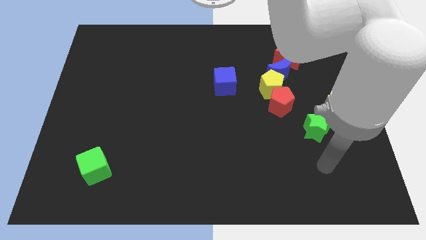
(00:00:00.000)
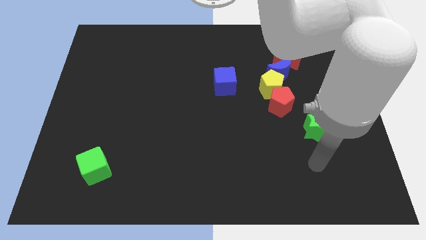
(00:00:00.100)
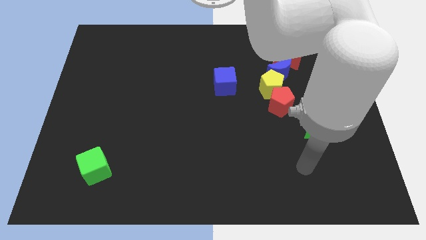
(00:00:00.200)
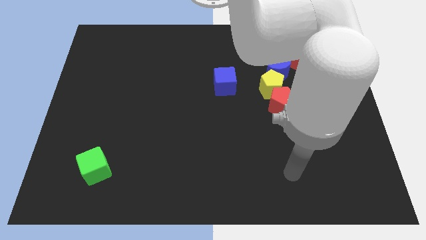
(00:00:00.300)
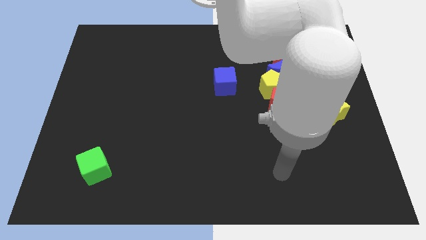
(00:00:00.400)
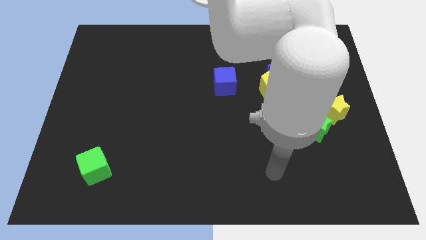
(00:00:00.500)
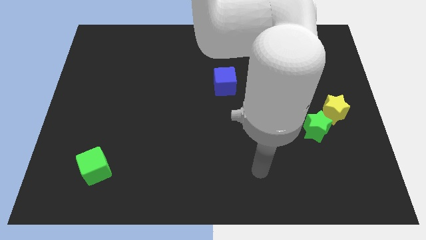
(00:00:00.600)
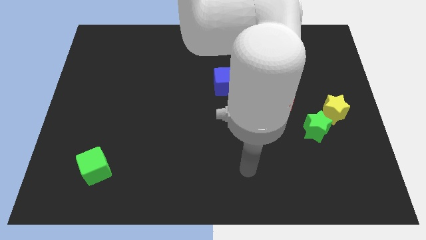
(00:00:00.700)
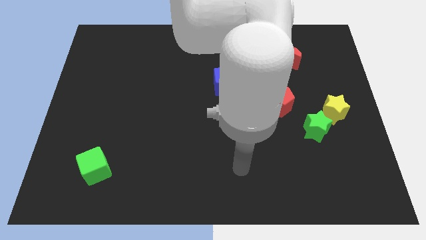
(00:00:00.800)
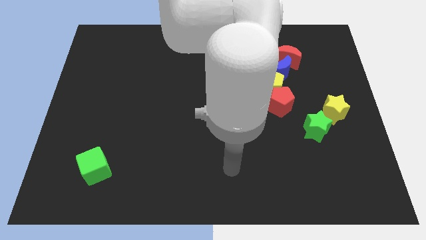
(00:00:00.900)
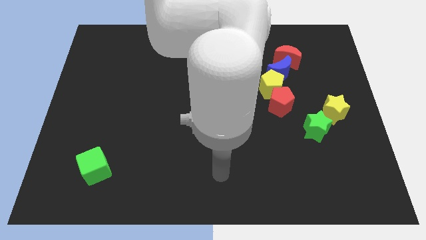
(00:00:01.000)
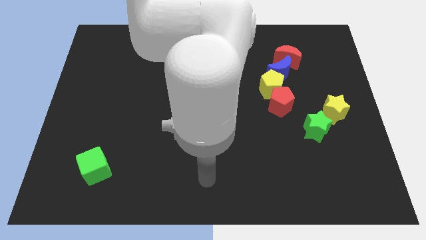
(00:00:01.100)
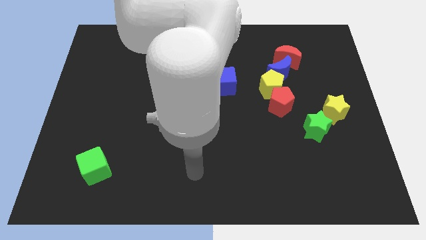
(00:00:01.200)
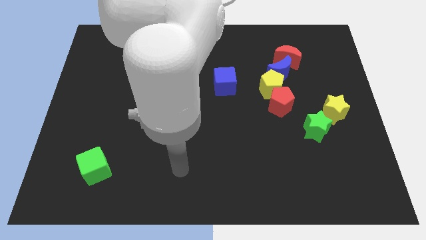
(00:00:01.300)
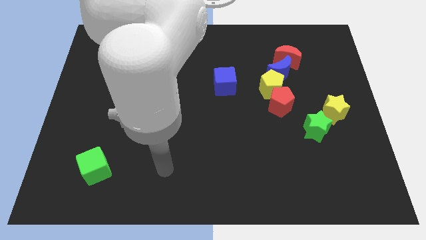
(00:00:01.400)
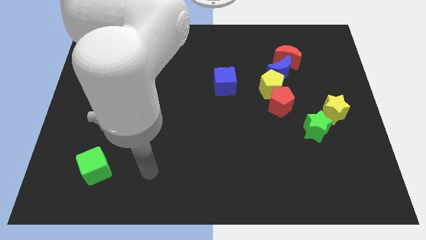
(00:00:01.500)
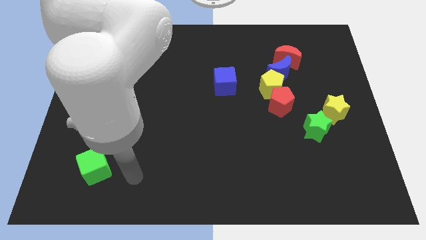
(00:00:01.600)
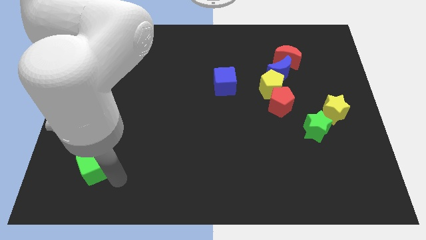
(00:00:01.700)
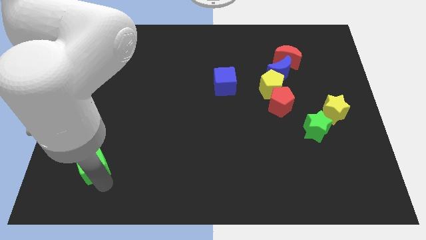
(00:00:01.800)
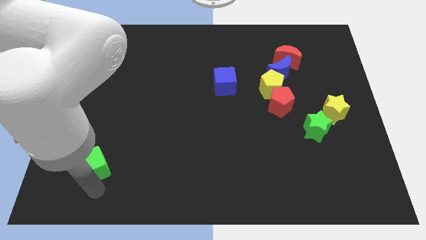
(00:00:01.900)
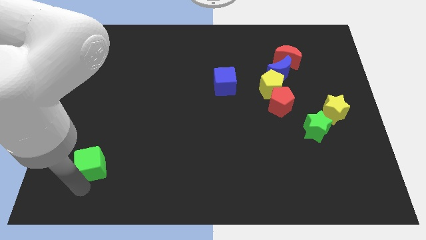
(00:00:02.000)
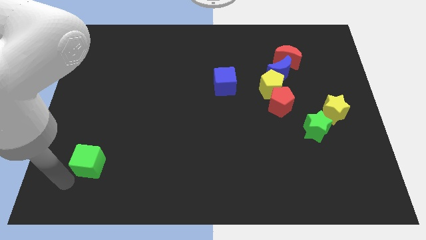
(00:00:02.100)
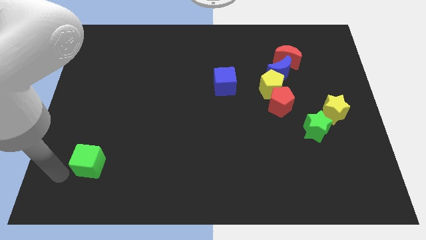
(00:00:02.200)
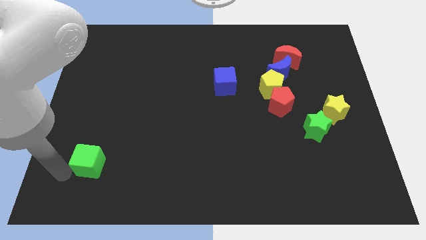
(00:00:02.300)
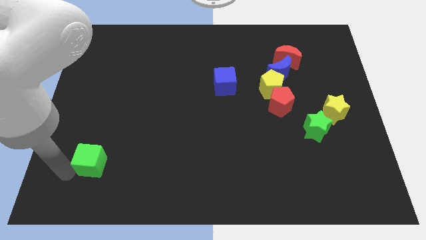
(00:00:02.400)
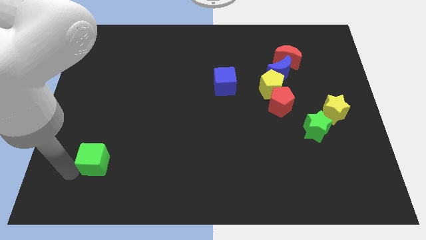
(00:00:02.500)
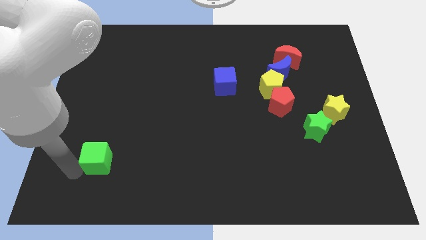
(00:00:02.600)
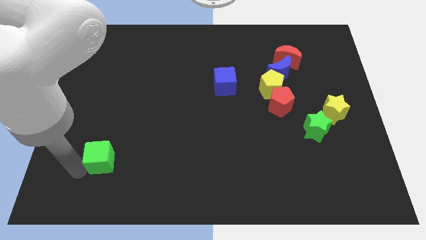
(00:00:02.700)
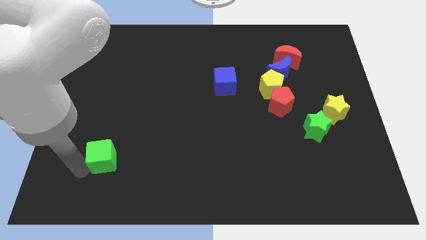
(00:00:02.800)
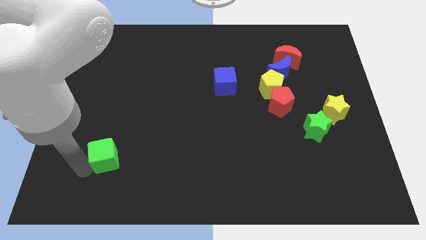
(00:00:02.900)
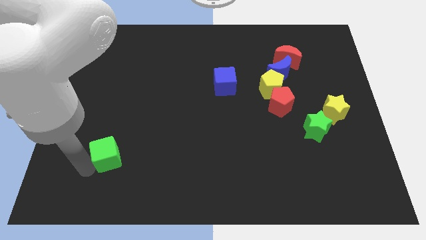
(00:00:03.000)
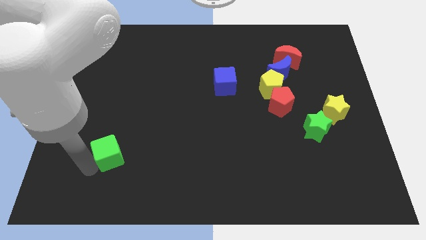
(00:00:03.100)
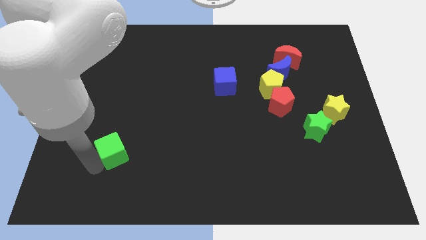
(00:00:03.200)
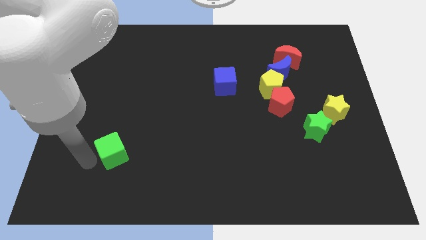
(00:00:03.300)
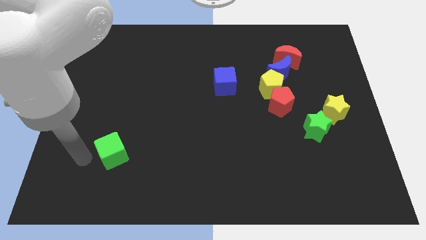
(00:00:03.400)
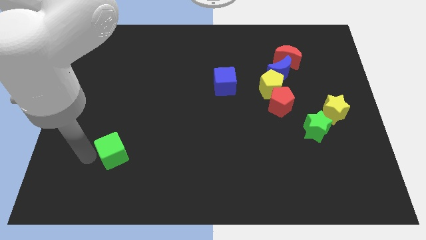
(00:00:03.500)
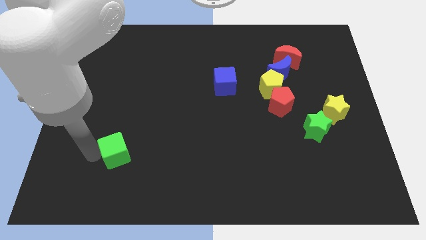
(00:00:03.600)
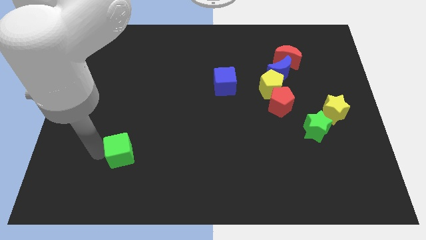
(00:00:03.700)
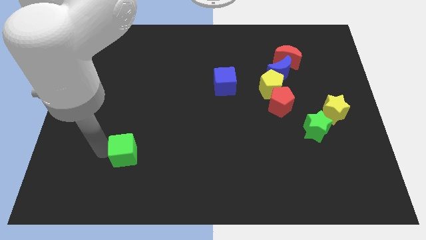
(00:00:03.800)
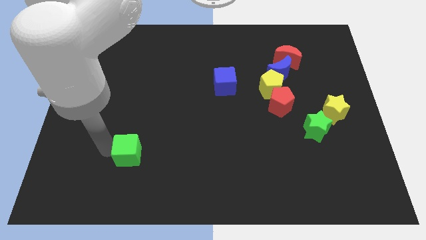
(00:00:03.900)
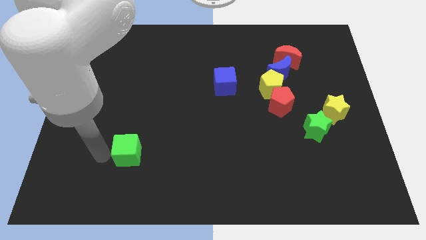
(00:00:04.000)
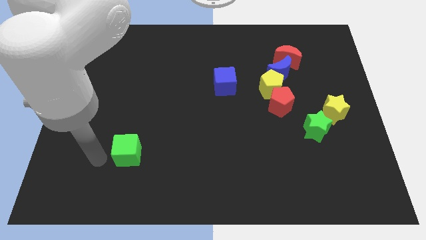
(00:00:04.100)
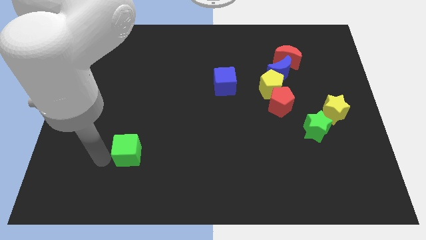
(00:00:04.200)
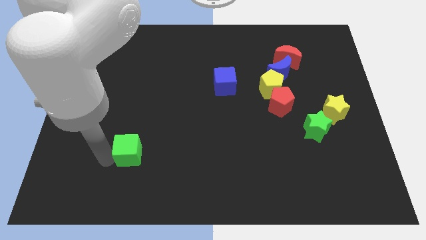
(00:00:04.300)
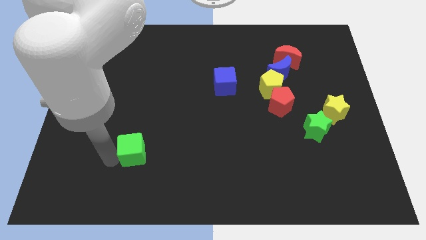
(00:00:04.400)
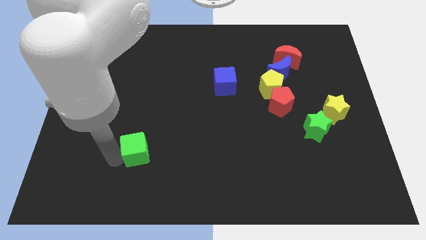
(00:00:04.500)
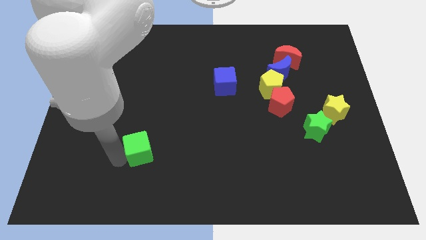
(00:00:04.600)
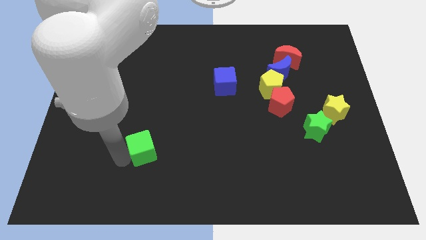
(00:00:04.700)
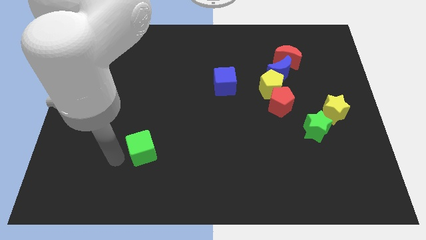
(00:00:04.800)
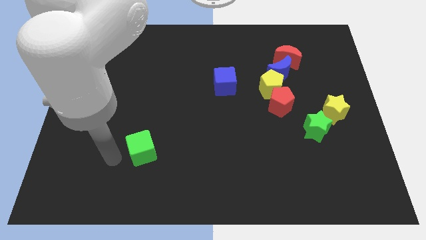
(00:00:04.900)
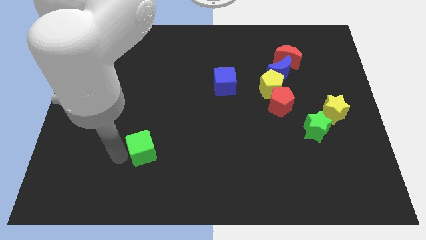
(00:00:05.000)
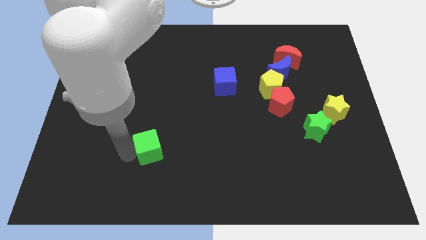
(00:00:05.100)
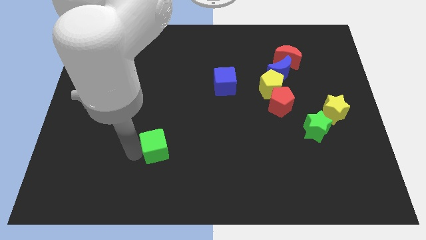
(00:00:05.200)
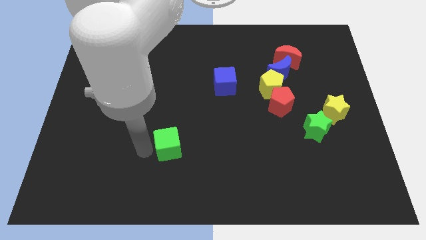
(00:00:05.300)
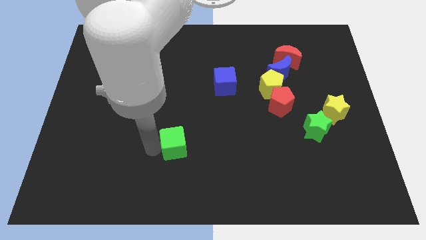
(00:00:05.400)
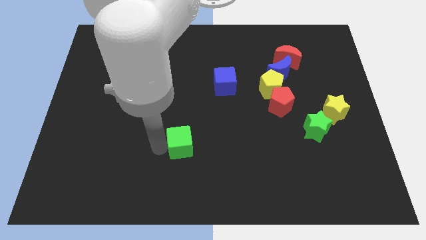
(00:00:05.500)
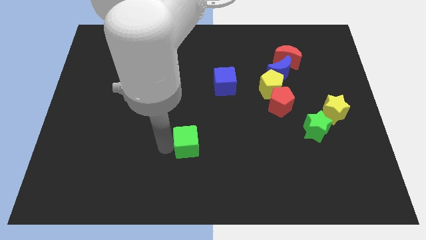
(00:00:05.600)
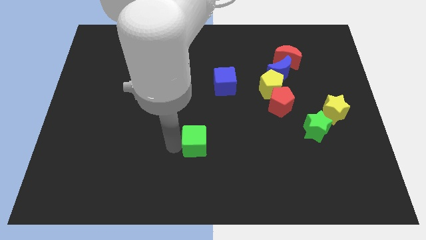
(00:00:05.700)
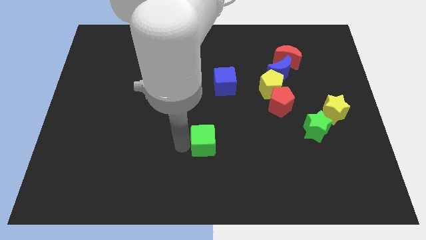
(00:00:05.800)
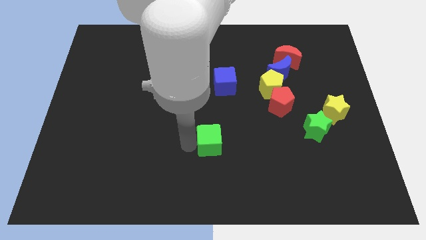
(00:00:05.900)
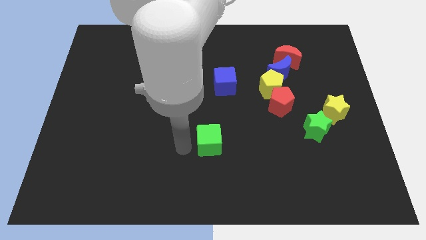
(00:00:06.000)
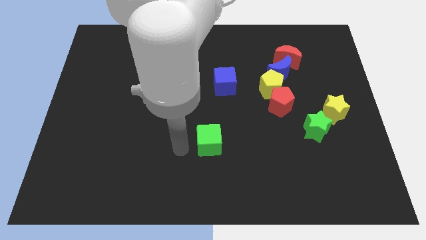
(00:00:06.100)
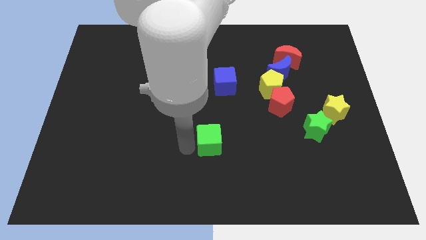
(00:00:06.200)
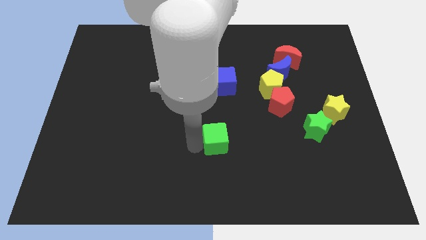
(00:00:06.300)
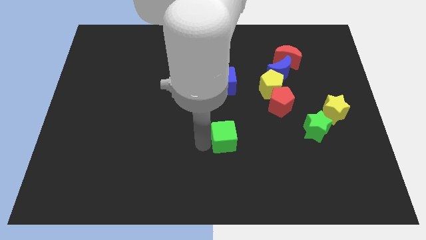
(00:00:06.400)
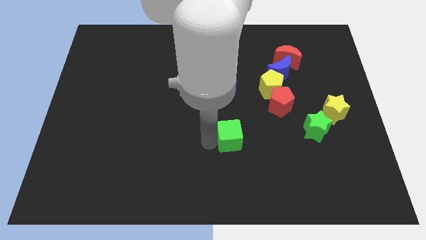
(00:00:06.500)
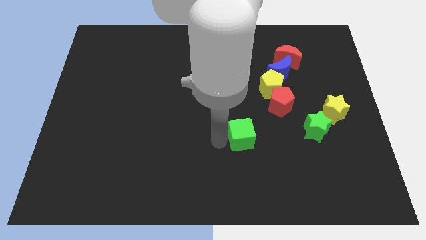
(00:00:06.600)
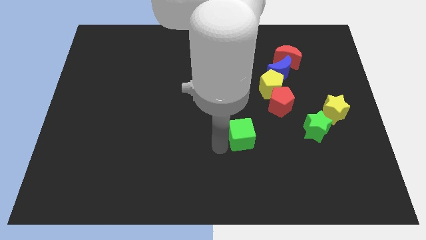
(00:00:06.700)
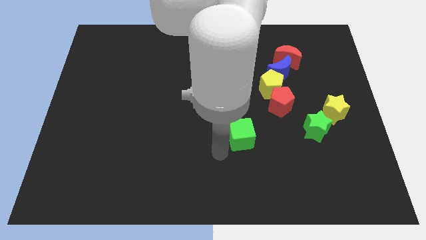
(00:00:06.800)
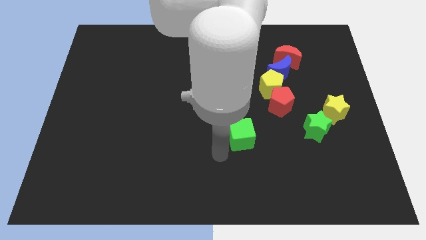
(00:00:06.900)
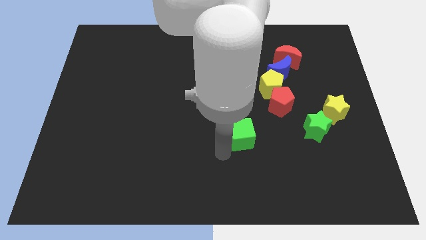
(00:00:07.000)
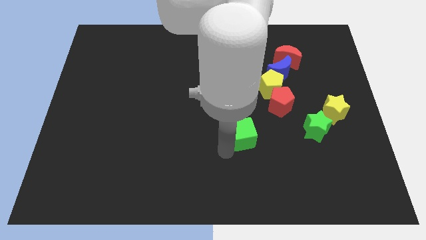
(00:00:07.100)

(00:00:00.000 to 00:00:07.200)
slide the green cube to the bottom left of the red pentagon
